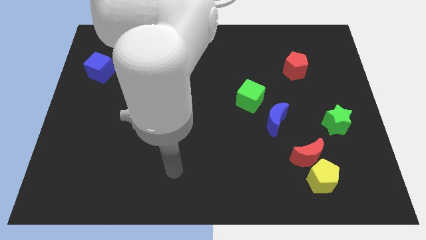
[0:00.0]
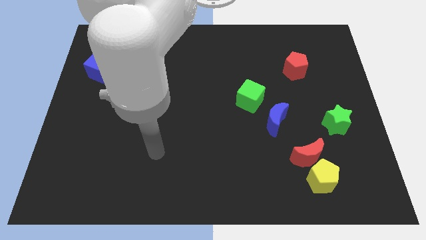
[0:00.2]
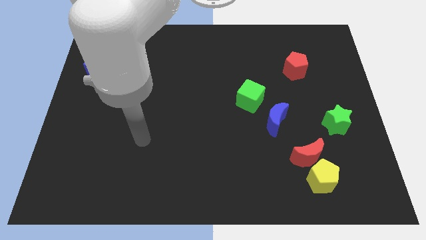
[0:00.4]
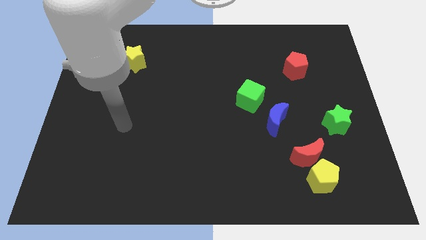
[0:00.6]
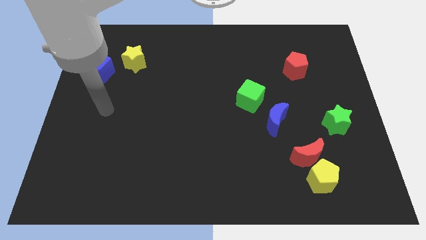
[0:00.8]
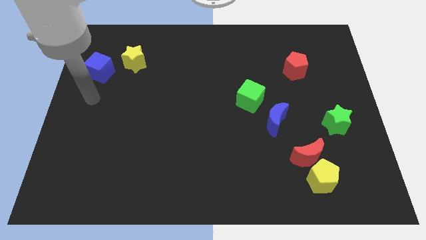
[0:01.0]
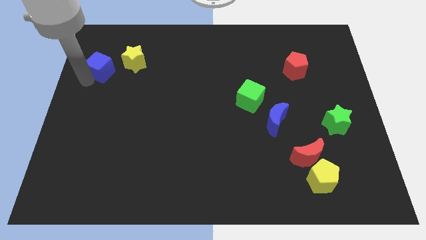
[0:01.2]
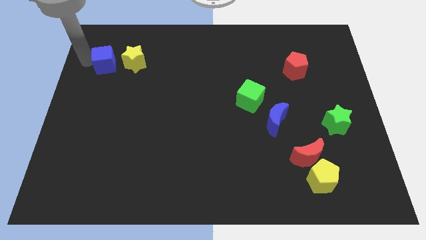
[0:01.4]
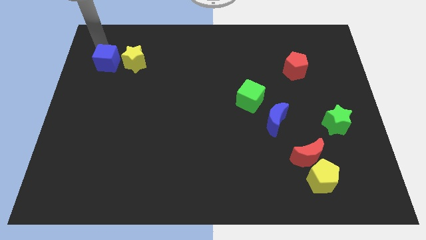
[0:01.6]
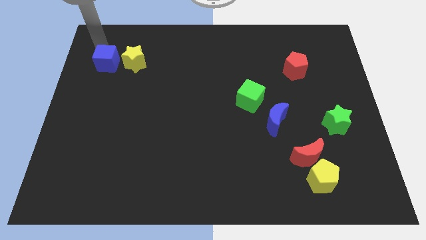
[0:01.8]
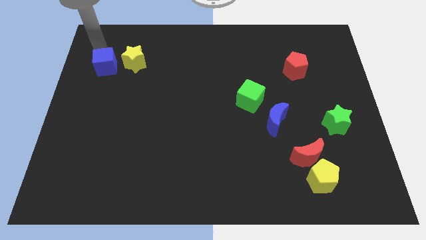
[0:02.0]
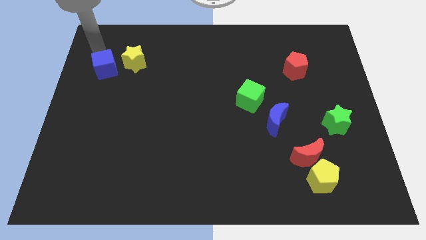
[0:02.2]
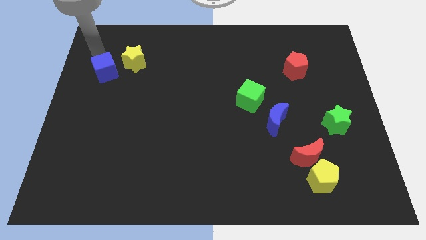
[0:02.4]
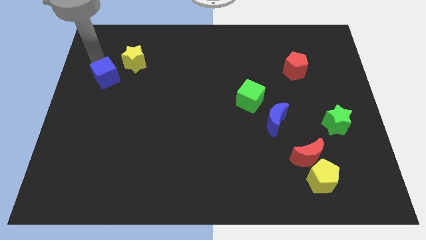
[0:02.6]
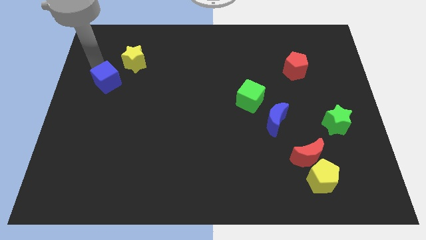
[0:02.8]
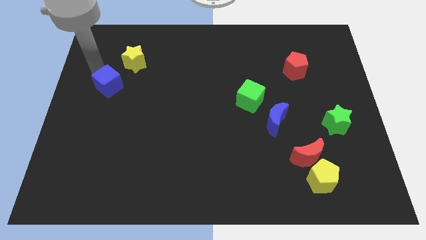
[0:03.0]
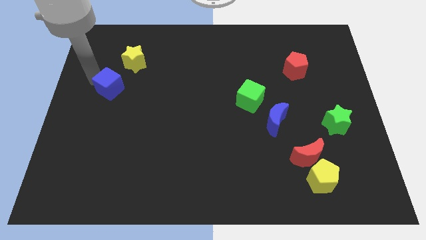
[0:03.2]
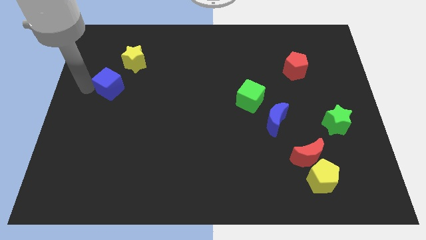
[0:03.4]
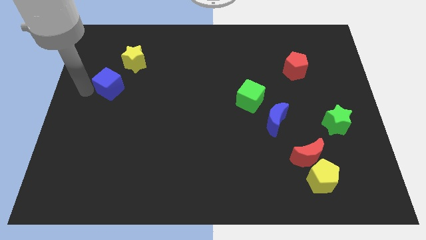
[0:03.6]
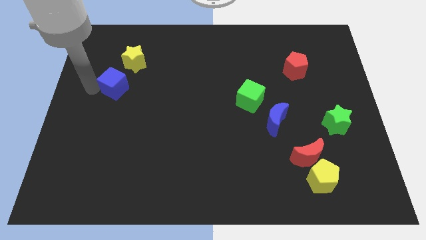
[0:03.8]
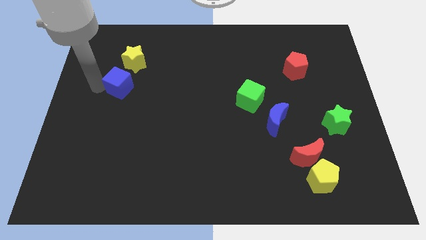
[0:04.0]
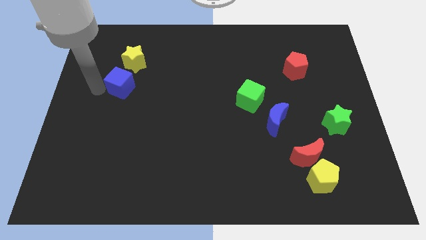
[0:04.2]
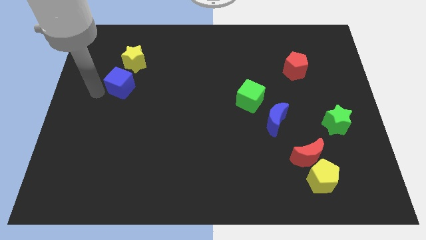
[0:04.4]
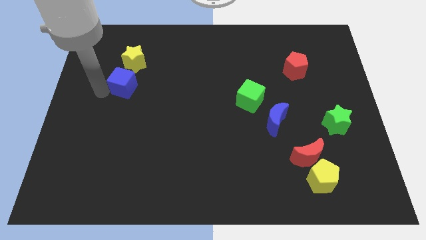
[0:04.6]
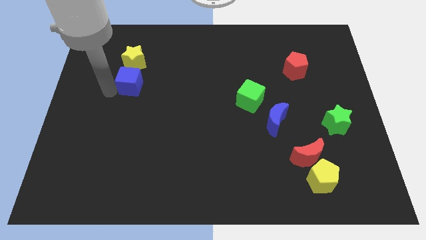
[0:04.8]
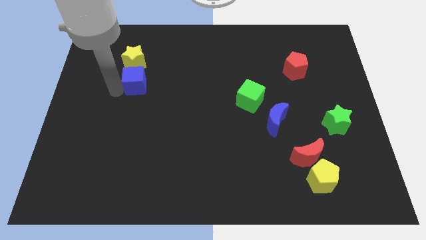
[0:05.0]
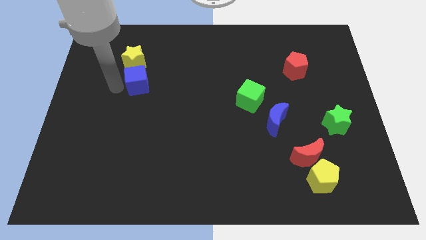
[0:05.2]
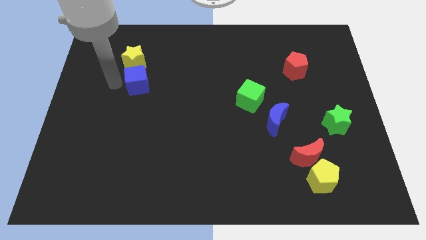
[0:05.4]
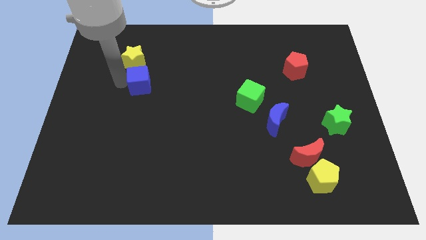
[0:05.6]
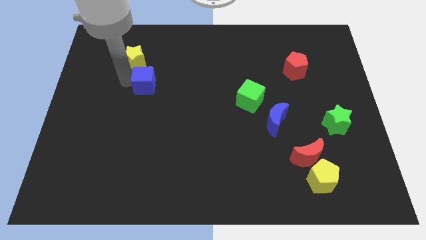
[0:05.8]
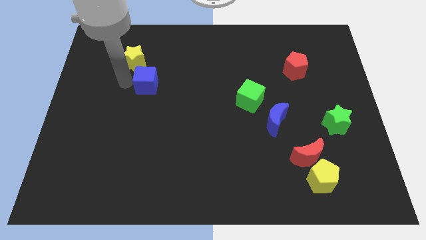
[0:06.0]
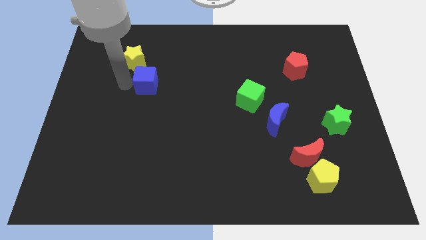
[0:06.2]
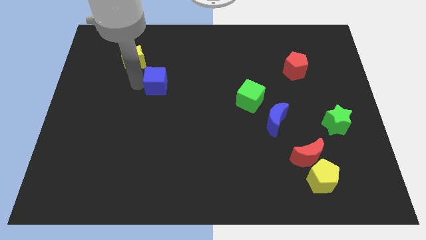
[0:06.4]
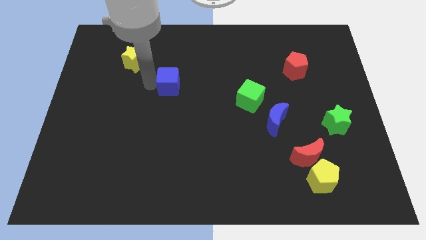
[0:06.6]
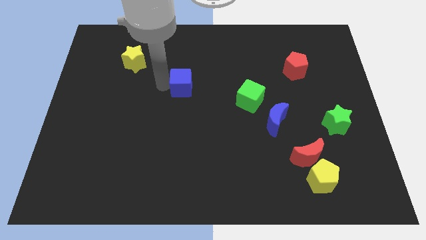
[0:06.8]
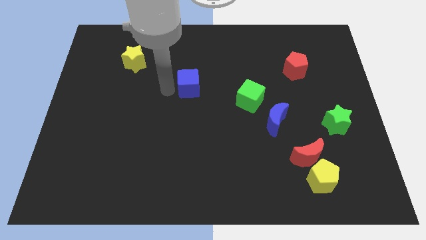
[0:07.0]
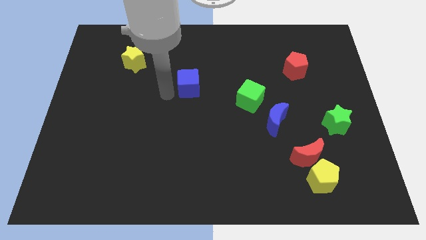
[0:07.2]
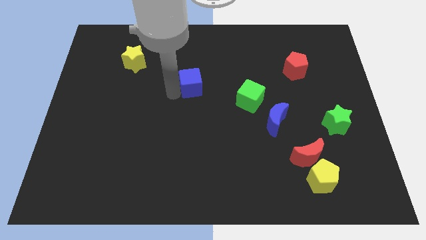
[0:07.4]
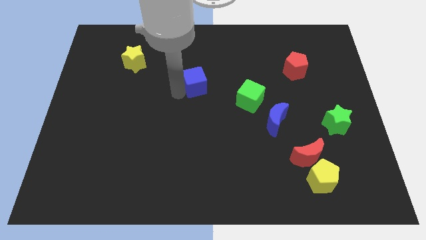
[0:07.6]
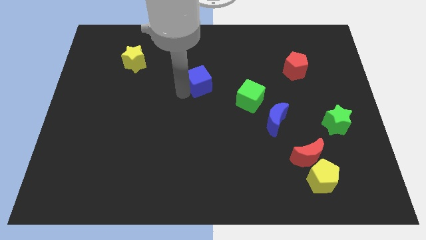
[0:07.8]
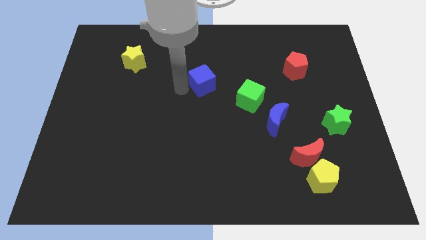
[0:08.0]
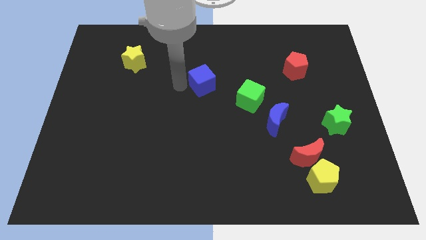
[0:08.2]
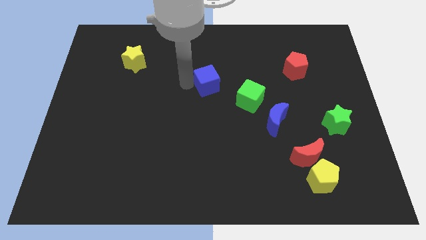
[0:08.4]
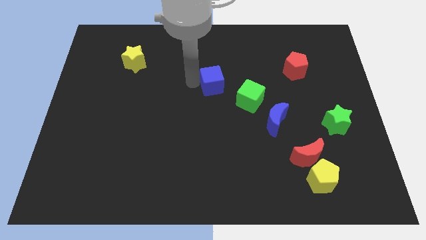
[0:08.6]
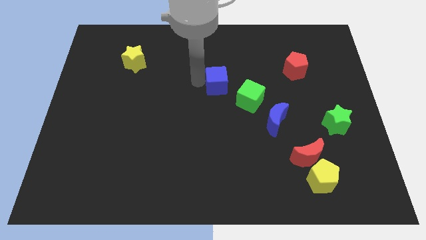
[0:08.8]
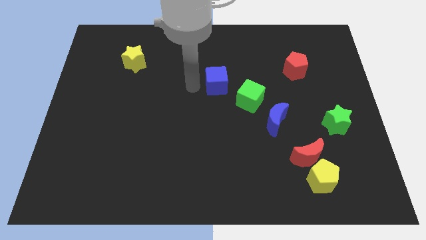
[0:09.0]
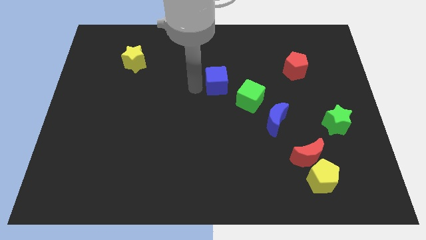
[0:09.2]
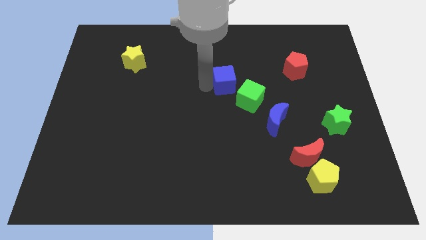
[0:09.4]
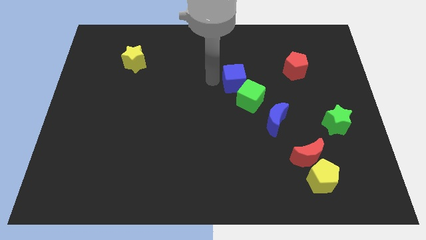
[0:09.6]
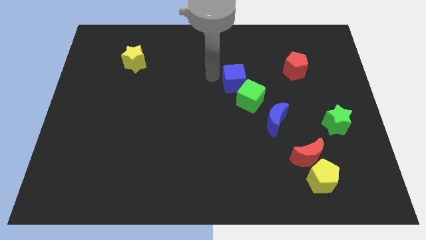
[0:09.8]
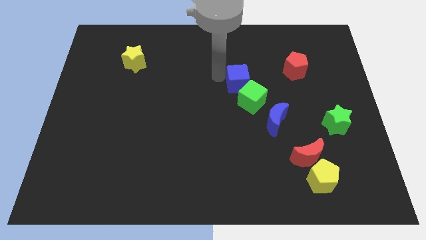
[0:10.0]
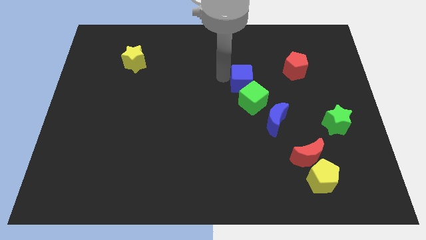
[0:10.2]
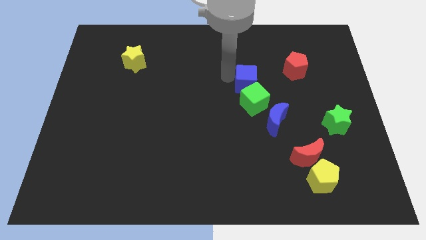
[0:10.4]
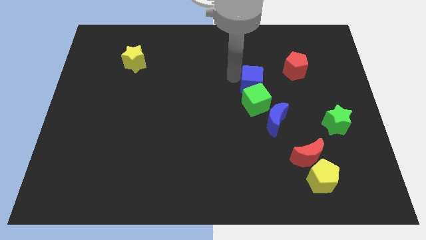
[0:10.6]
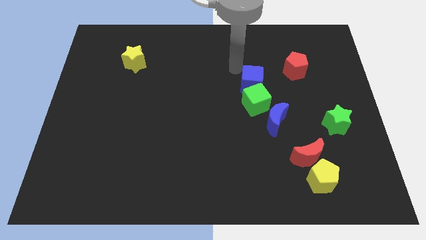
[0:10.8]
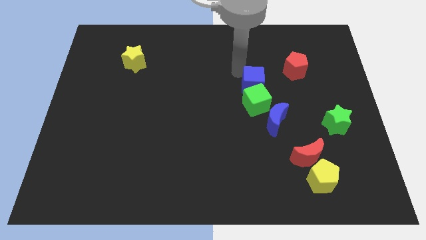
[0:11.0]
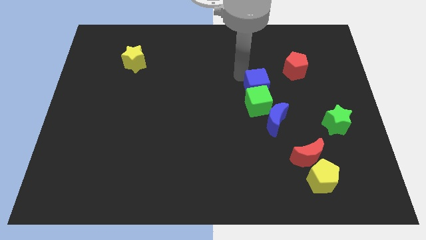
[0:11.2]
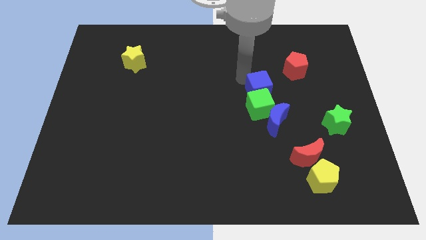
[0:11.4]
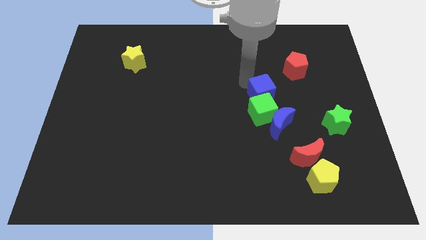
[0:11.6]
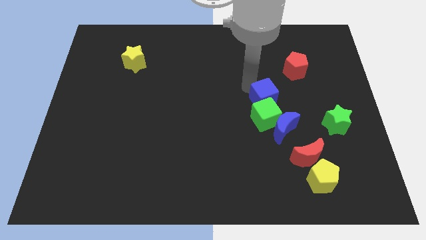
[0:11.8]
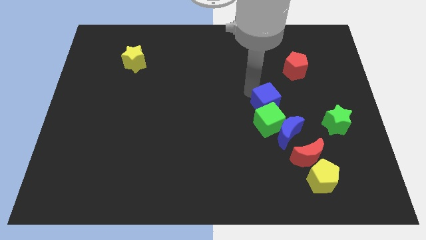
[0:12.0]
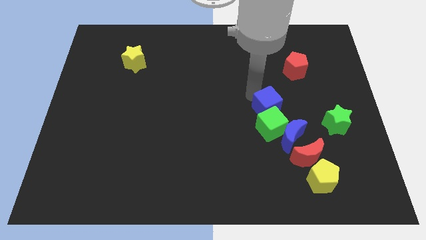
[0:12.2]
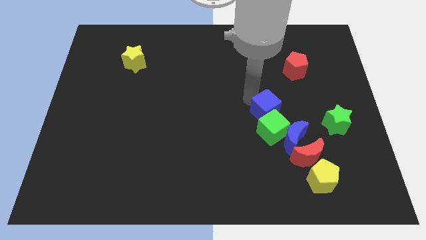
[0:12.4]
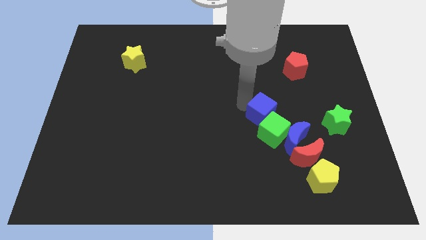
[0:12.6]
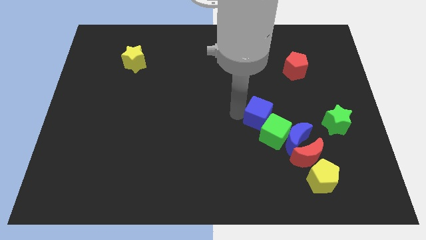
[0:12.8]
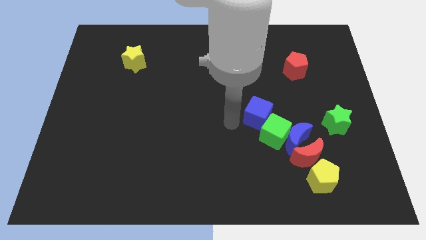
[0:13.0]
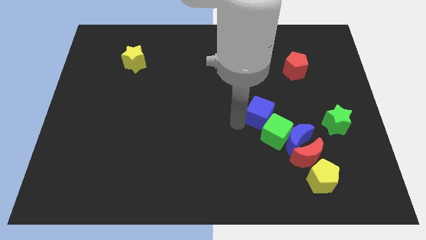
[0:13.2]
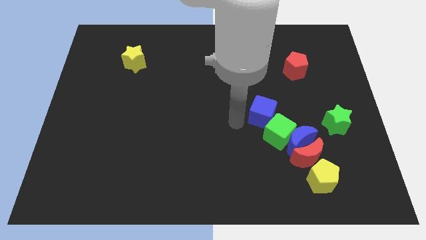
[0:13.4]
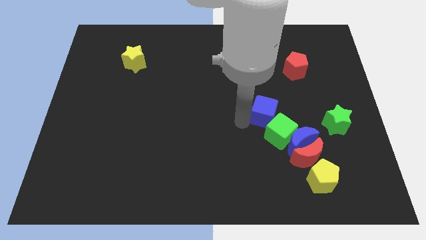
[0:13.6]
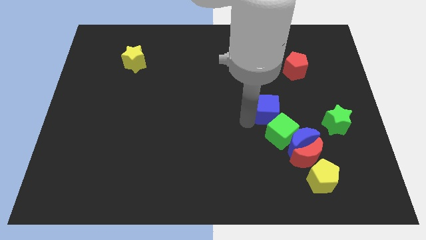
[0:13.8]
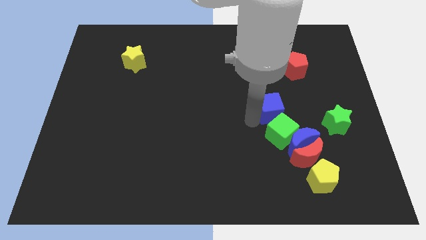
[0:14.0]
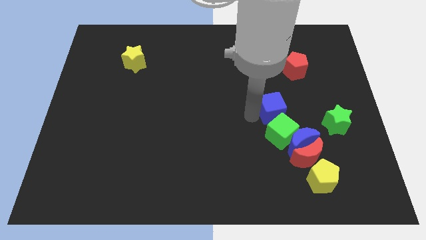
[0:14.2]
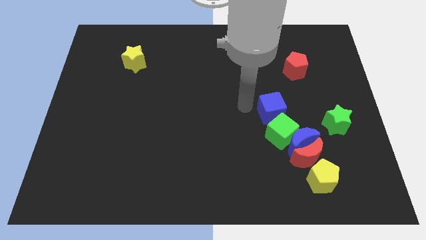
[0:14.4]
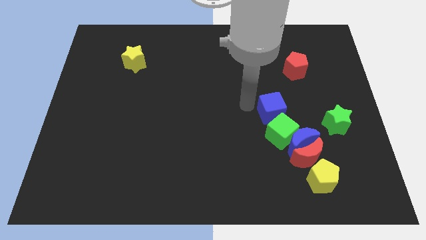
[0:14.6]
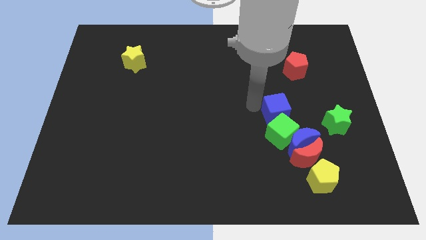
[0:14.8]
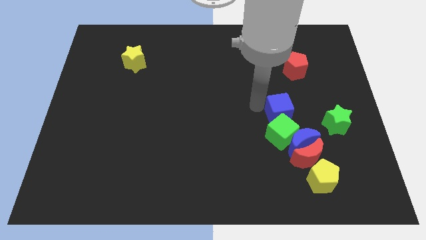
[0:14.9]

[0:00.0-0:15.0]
push the blue cube to the top side of the red moon
